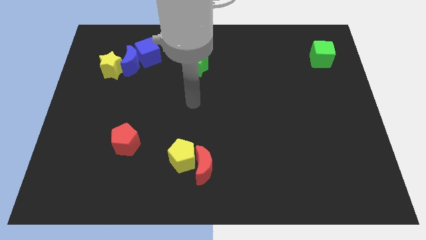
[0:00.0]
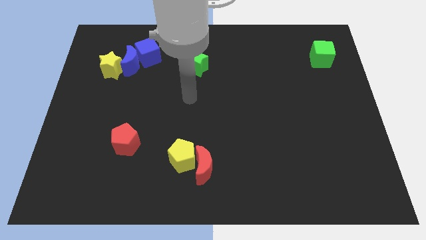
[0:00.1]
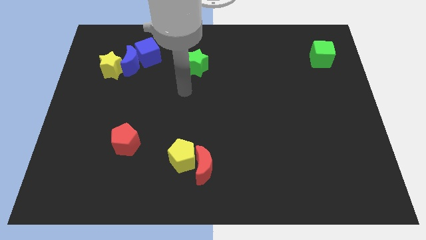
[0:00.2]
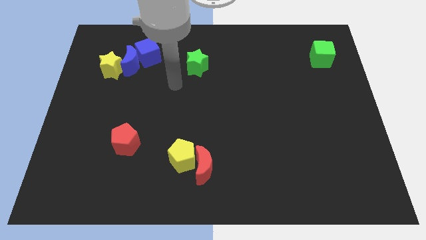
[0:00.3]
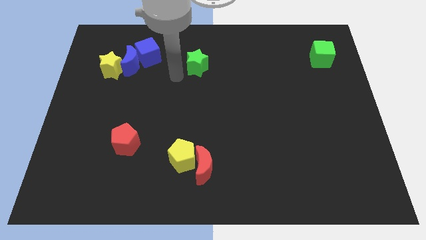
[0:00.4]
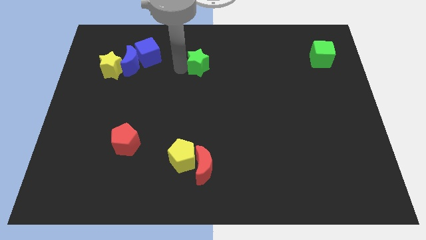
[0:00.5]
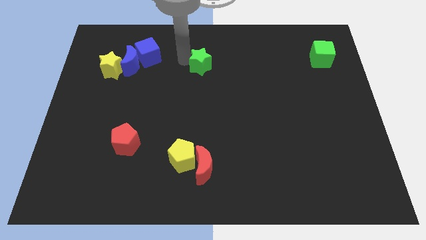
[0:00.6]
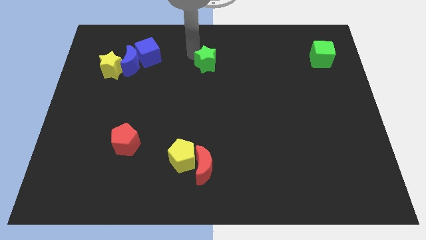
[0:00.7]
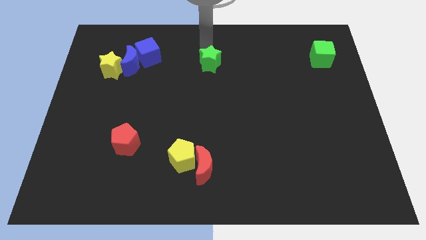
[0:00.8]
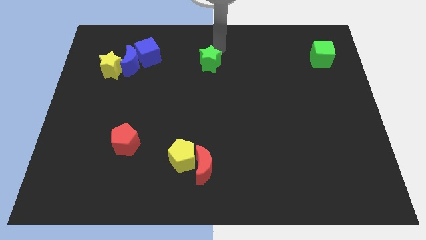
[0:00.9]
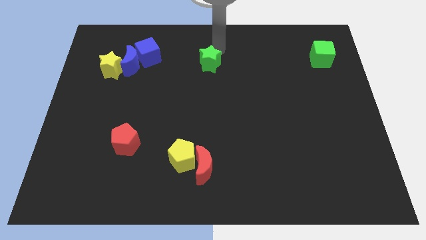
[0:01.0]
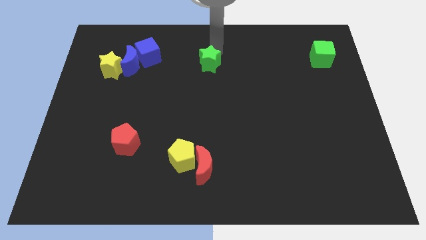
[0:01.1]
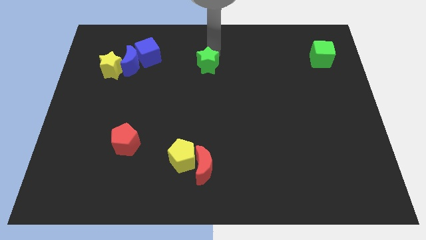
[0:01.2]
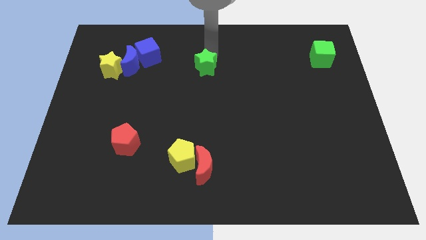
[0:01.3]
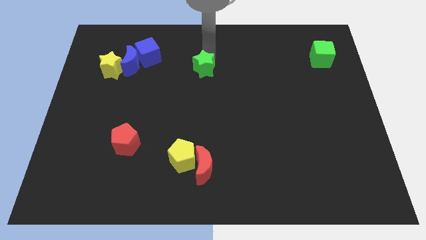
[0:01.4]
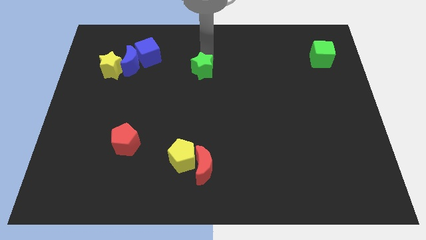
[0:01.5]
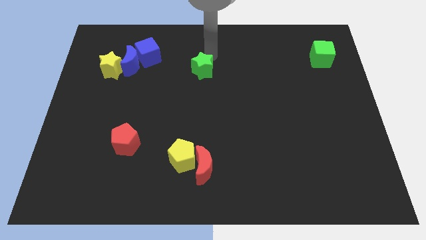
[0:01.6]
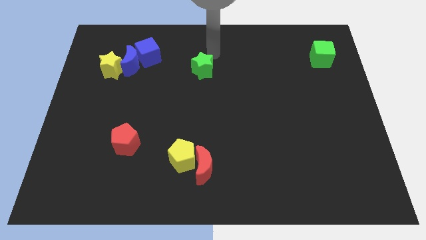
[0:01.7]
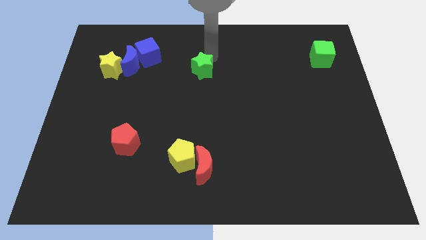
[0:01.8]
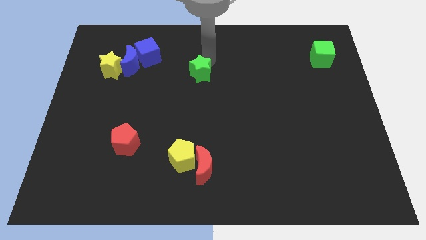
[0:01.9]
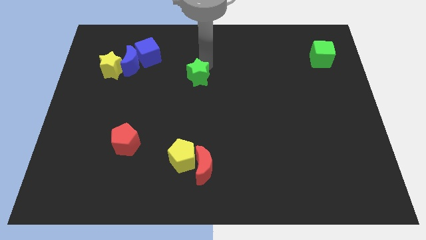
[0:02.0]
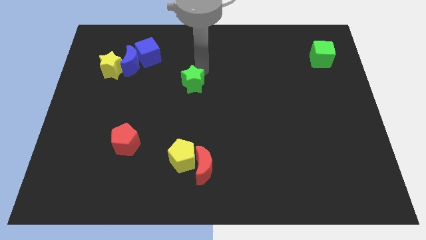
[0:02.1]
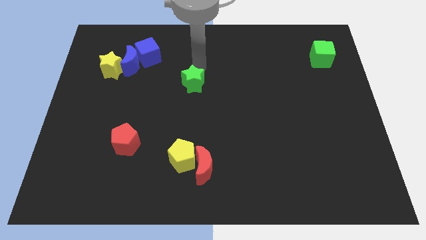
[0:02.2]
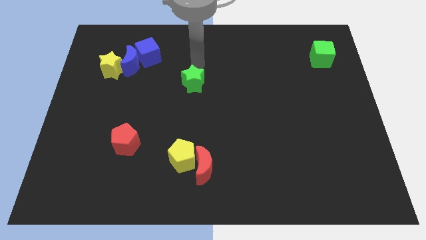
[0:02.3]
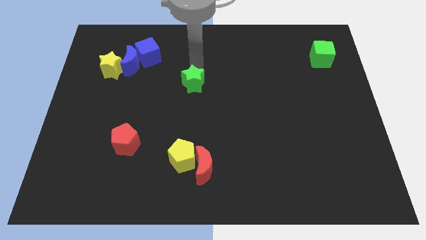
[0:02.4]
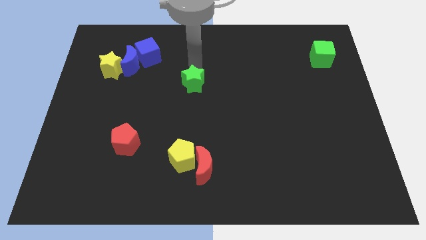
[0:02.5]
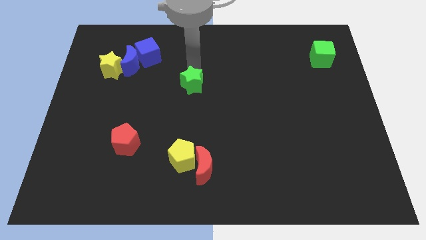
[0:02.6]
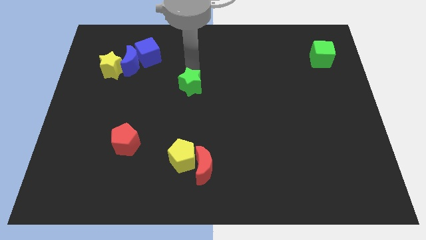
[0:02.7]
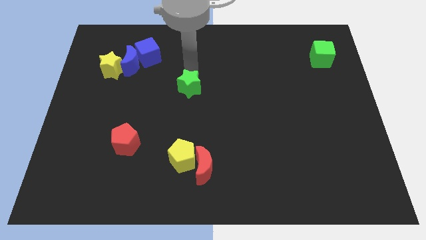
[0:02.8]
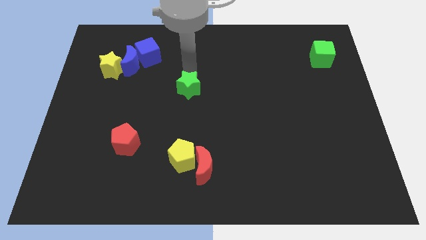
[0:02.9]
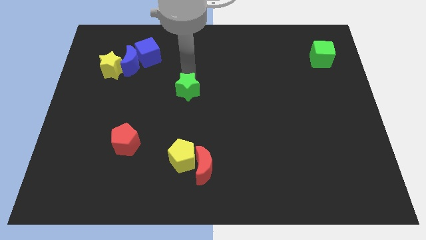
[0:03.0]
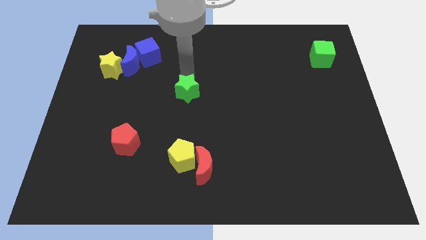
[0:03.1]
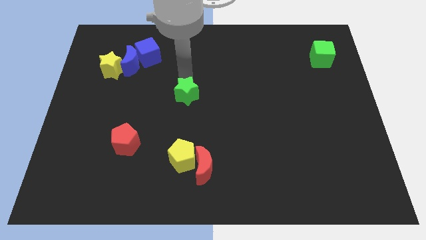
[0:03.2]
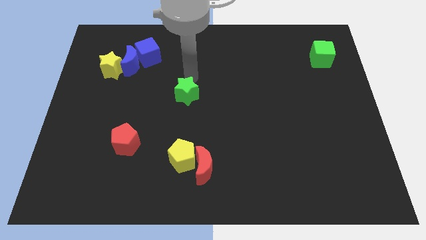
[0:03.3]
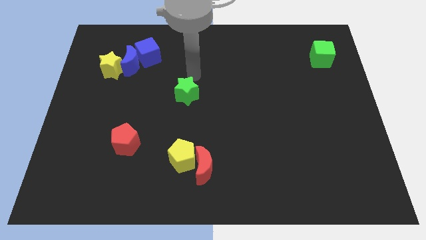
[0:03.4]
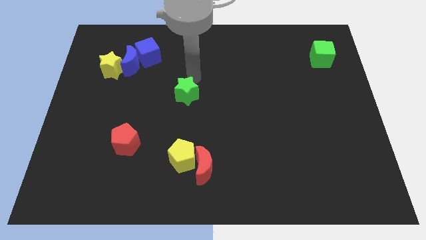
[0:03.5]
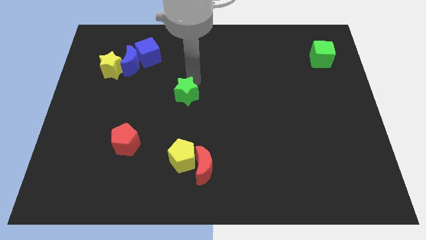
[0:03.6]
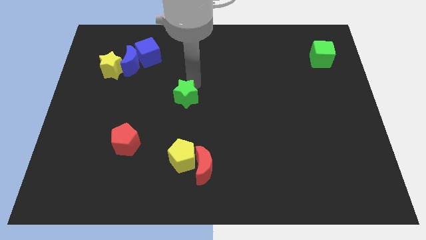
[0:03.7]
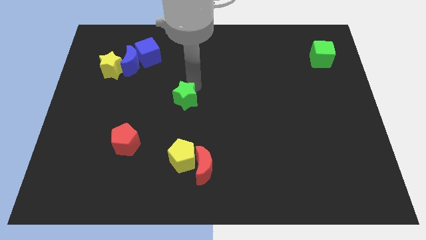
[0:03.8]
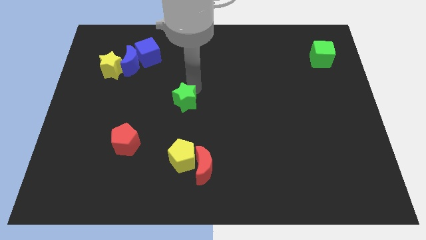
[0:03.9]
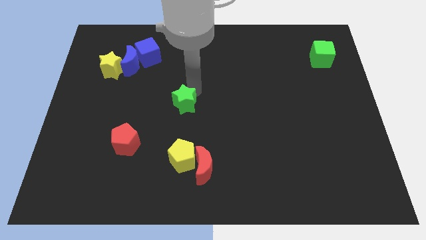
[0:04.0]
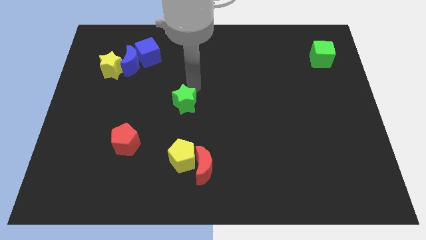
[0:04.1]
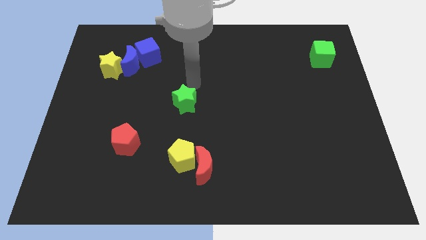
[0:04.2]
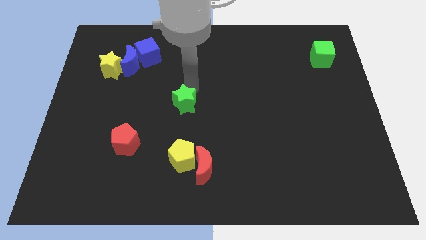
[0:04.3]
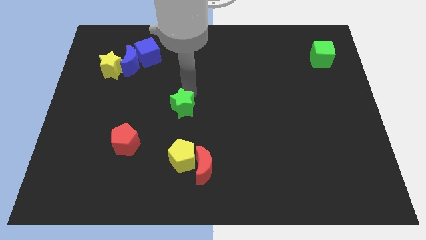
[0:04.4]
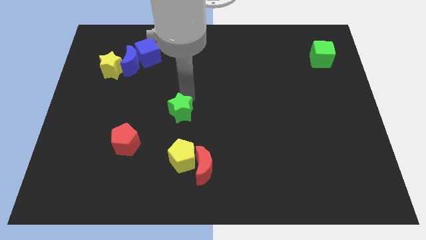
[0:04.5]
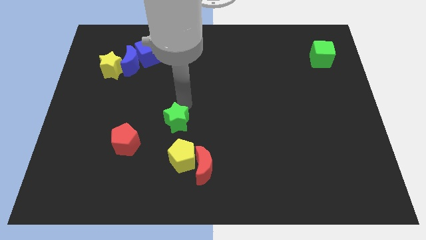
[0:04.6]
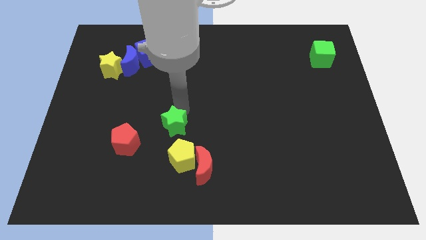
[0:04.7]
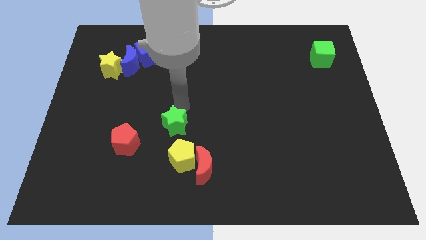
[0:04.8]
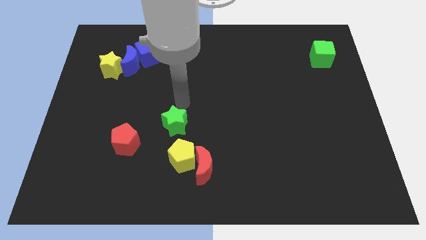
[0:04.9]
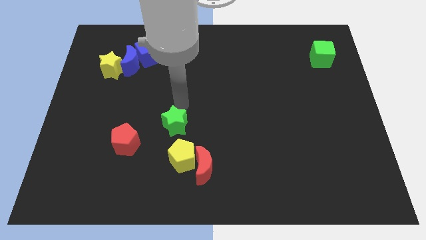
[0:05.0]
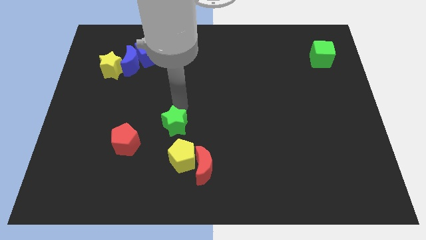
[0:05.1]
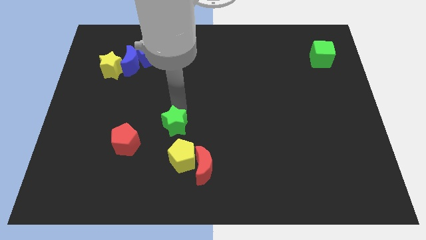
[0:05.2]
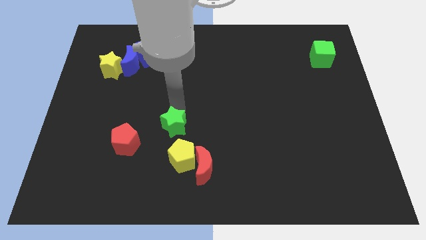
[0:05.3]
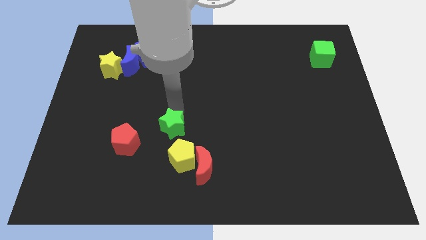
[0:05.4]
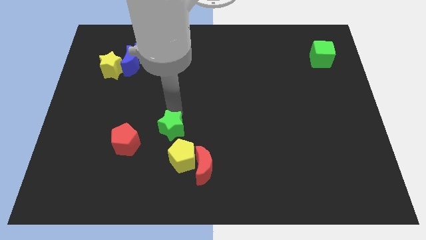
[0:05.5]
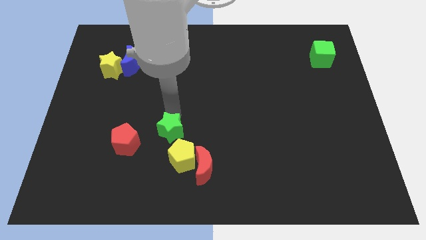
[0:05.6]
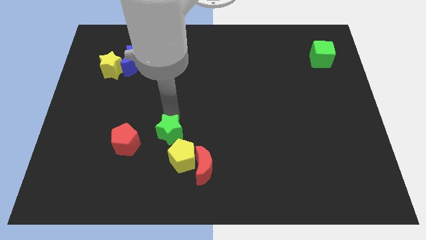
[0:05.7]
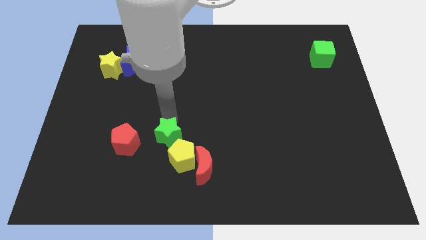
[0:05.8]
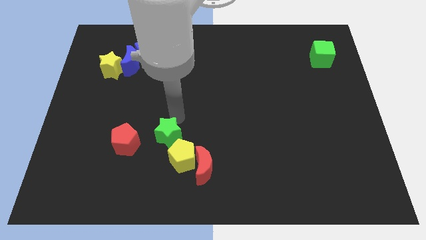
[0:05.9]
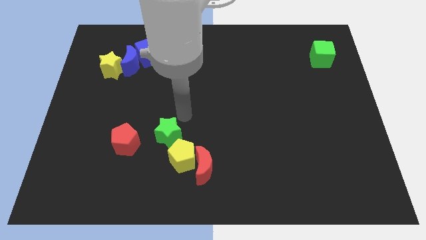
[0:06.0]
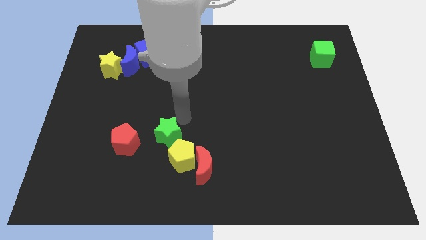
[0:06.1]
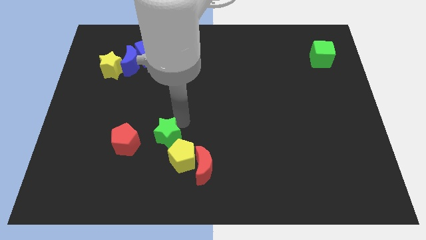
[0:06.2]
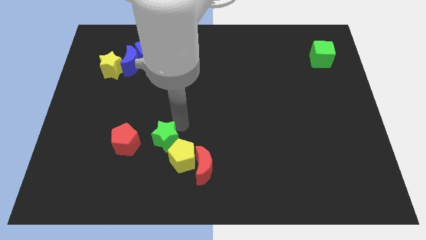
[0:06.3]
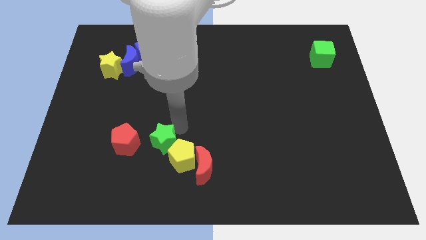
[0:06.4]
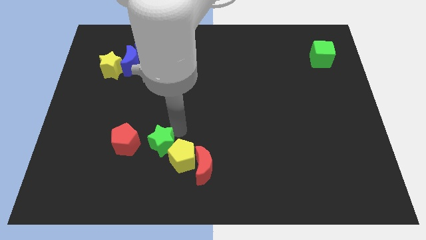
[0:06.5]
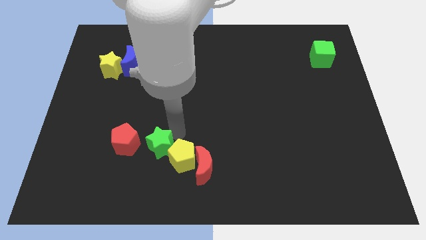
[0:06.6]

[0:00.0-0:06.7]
slide the green star diagonally down and to the right of the red pentagon
